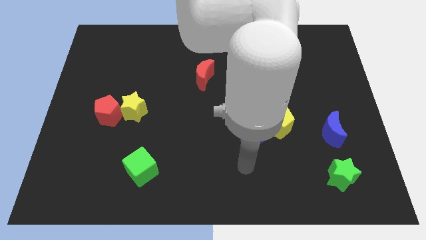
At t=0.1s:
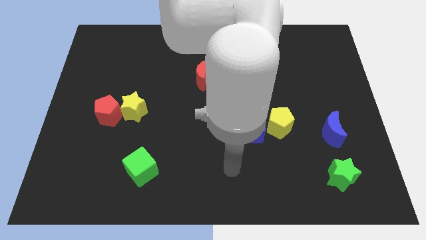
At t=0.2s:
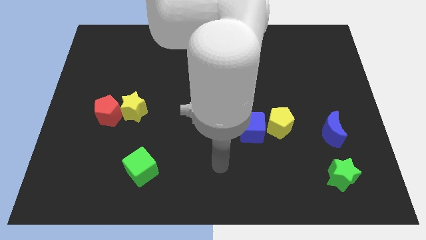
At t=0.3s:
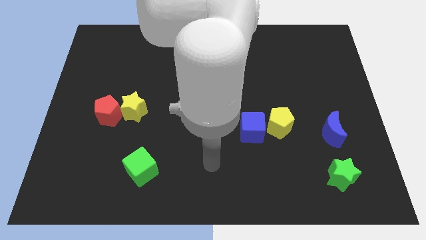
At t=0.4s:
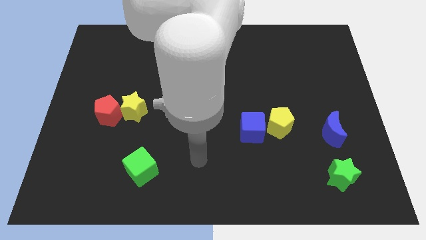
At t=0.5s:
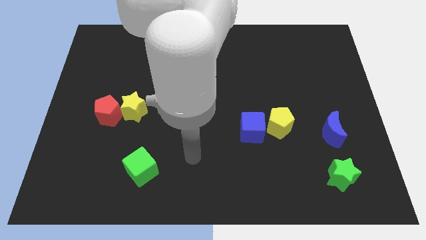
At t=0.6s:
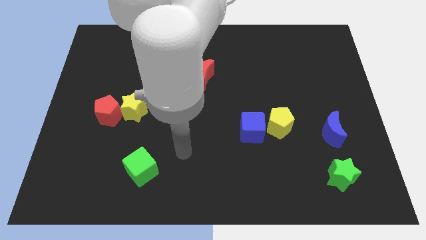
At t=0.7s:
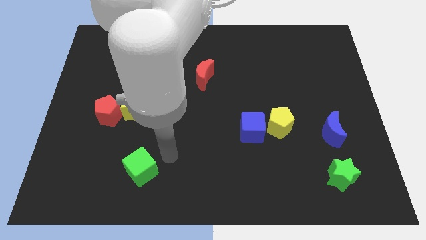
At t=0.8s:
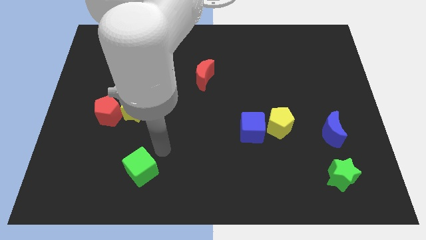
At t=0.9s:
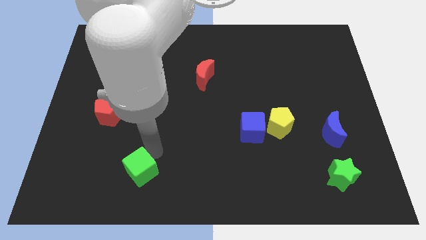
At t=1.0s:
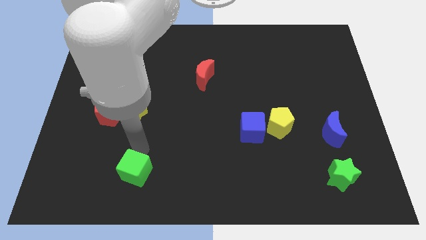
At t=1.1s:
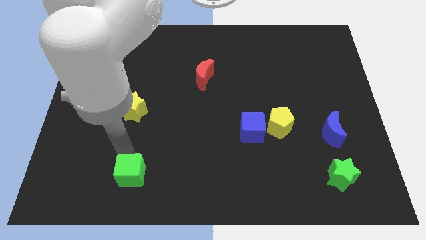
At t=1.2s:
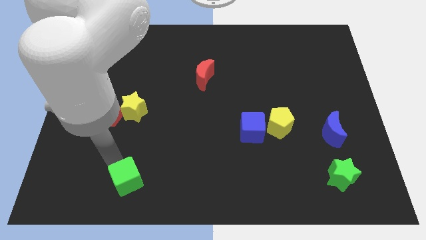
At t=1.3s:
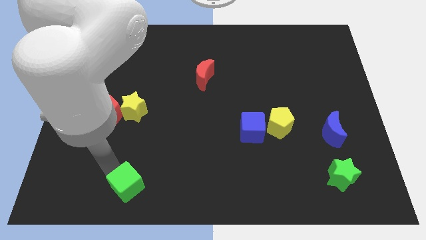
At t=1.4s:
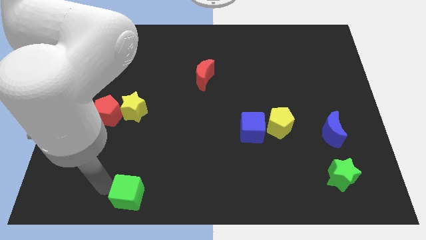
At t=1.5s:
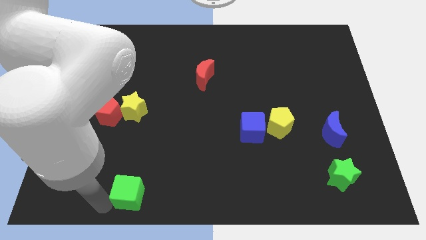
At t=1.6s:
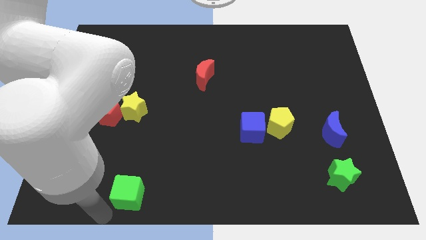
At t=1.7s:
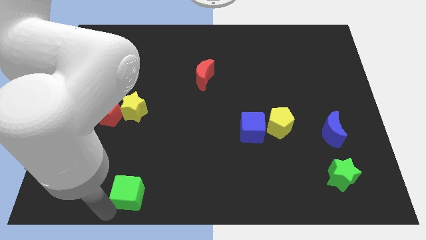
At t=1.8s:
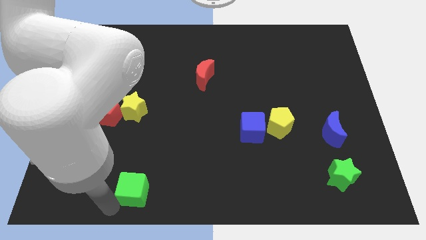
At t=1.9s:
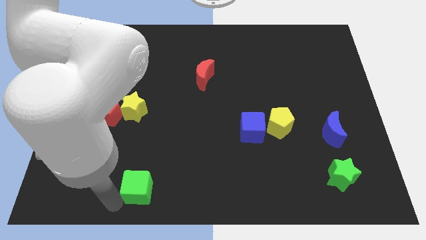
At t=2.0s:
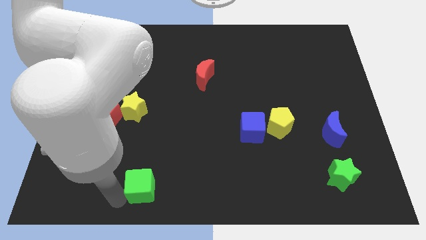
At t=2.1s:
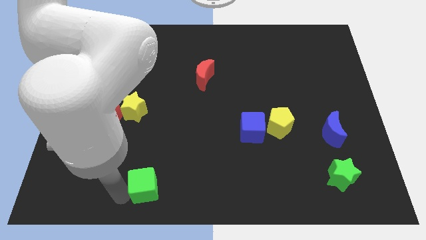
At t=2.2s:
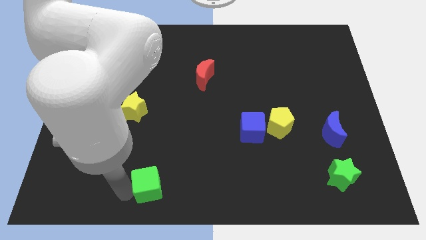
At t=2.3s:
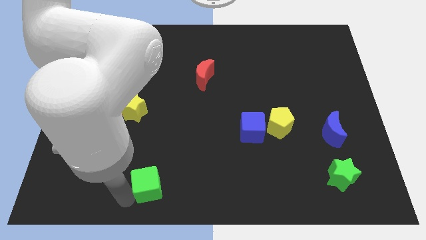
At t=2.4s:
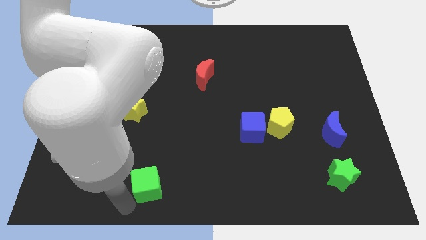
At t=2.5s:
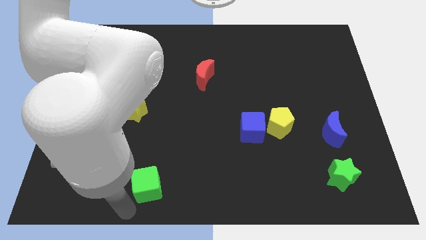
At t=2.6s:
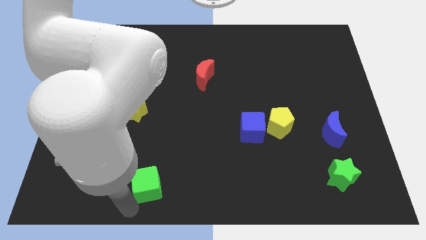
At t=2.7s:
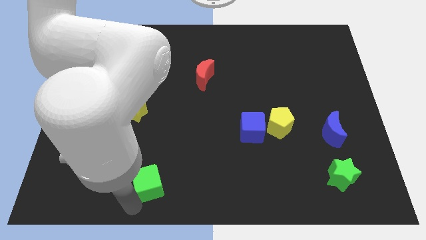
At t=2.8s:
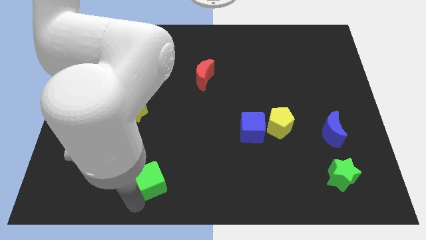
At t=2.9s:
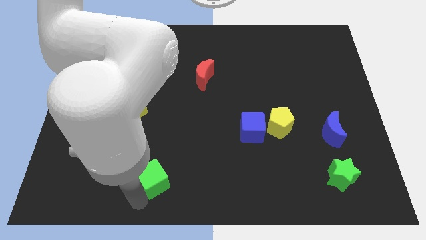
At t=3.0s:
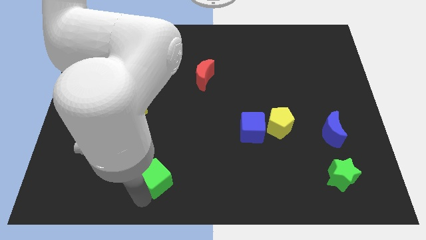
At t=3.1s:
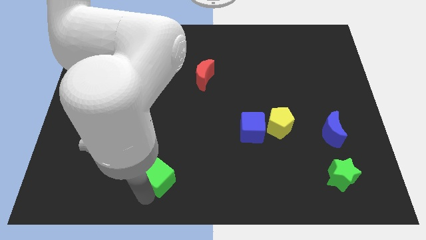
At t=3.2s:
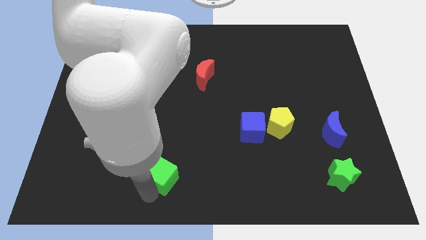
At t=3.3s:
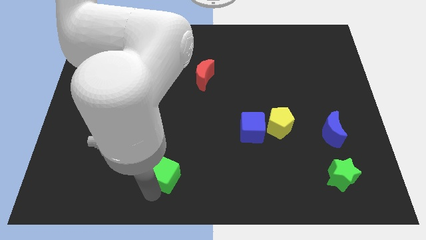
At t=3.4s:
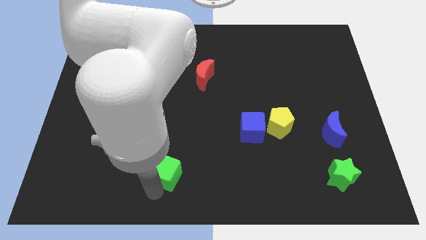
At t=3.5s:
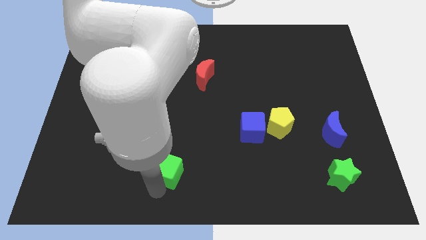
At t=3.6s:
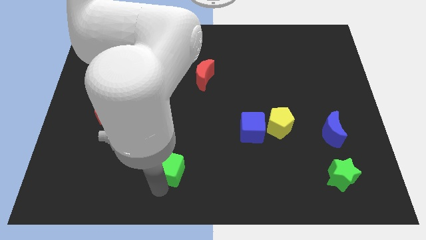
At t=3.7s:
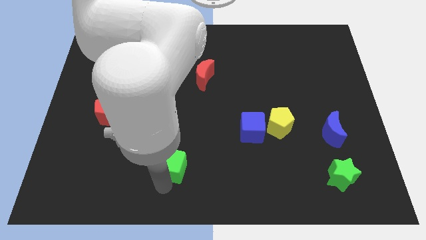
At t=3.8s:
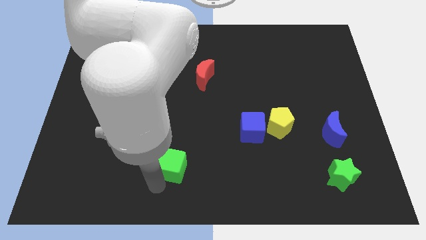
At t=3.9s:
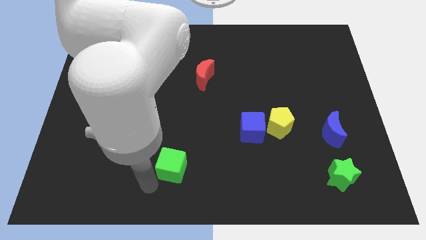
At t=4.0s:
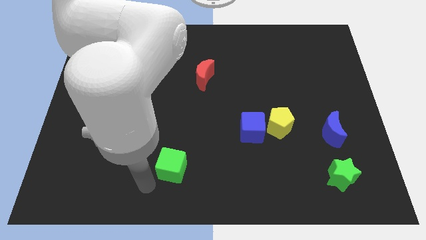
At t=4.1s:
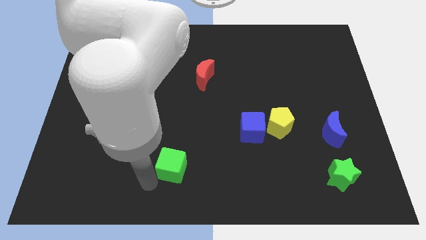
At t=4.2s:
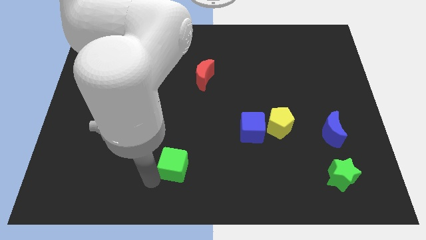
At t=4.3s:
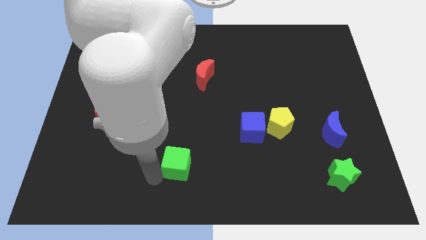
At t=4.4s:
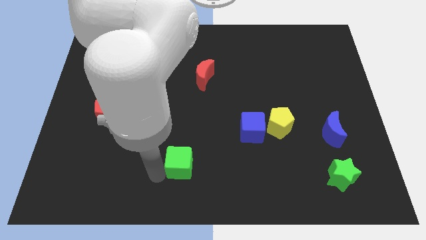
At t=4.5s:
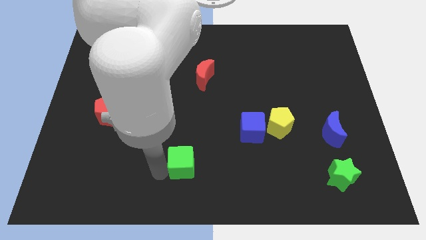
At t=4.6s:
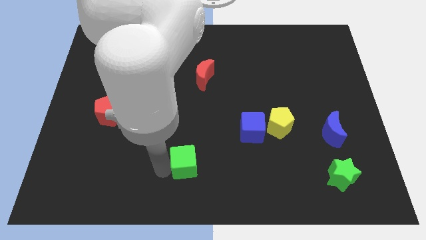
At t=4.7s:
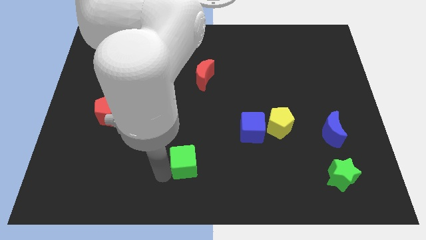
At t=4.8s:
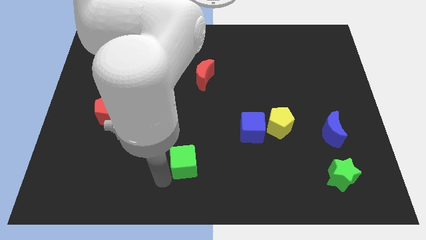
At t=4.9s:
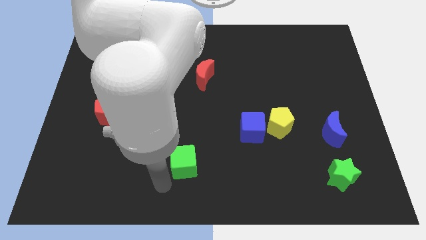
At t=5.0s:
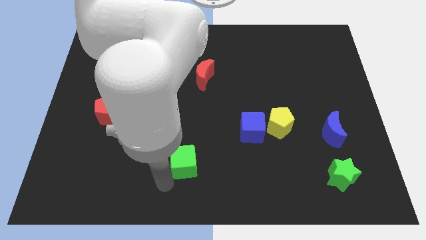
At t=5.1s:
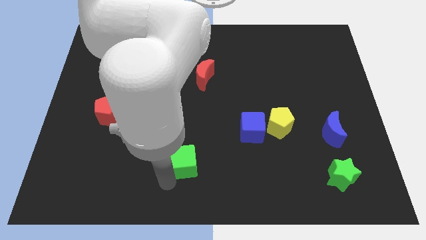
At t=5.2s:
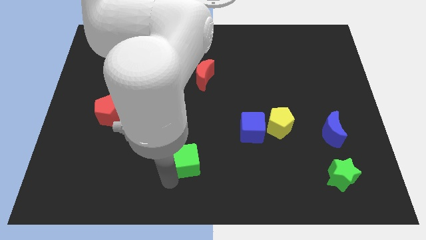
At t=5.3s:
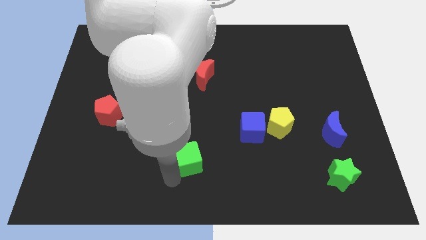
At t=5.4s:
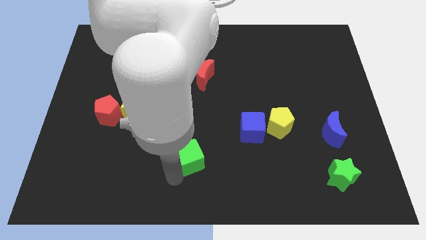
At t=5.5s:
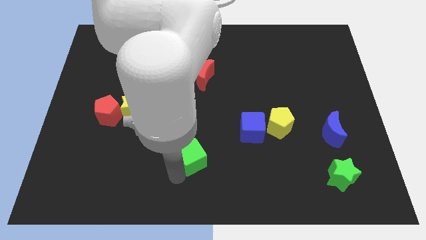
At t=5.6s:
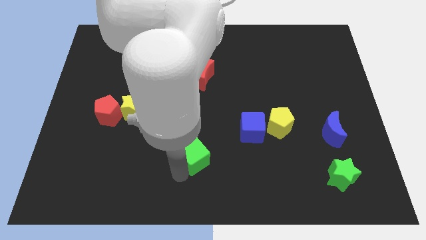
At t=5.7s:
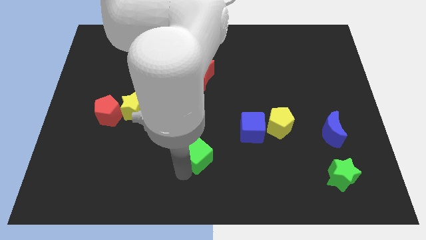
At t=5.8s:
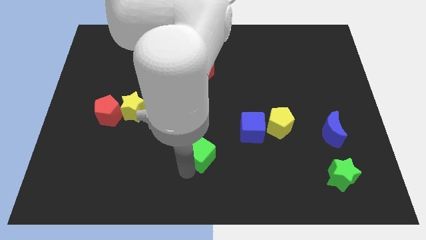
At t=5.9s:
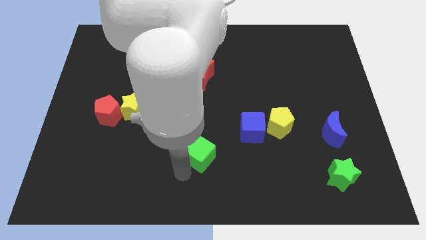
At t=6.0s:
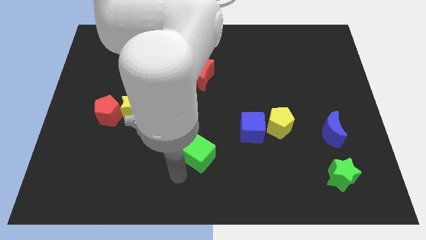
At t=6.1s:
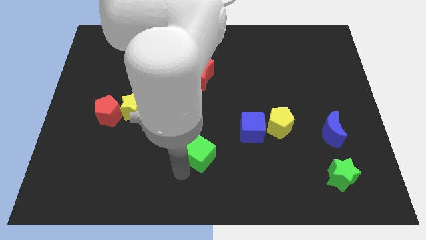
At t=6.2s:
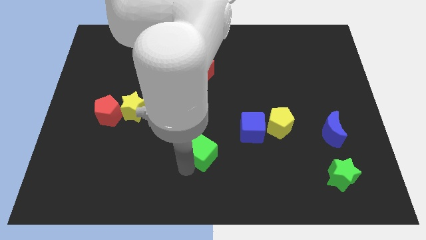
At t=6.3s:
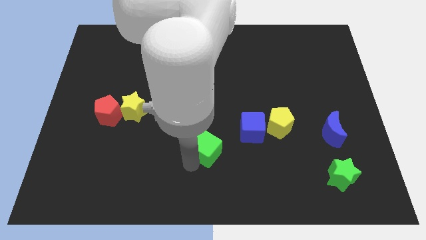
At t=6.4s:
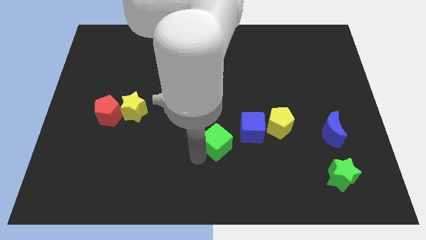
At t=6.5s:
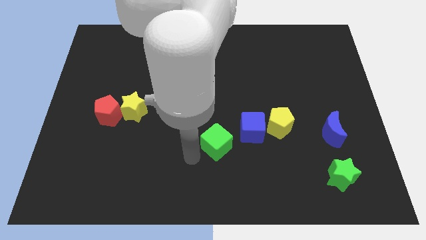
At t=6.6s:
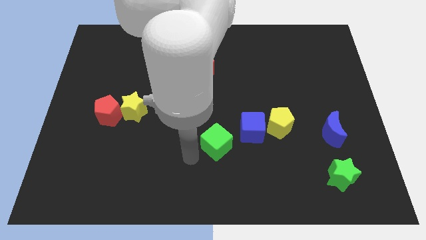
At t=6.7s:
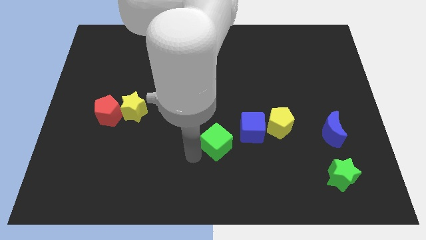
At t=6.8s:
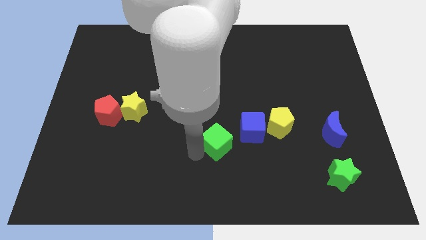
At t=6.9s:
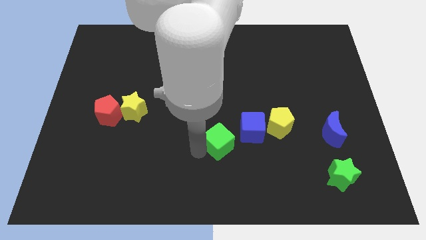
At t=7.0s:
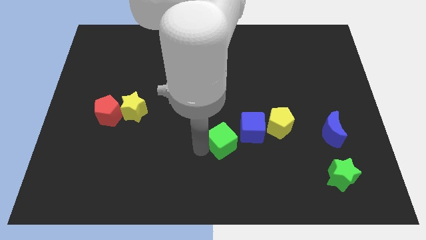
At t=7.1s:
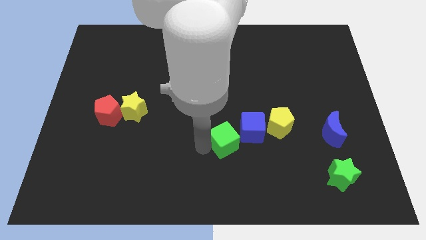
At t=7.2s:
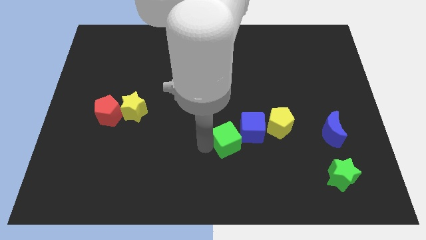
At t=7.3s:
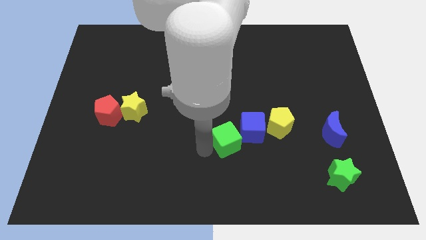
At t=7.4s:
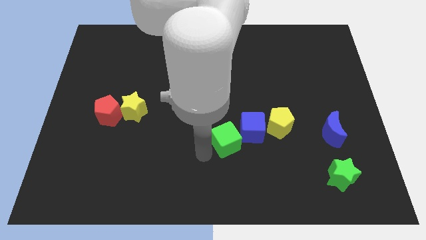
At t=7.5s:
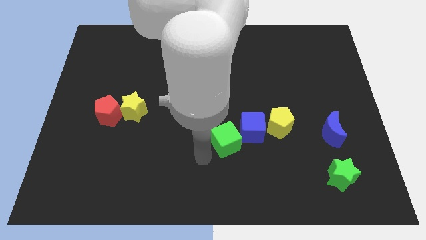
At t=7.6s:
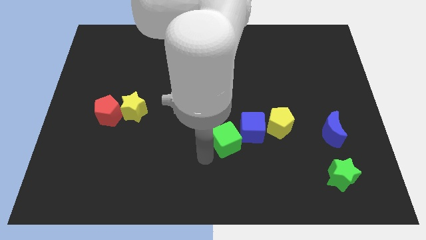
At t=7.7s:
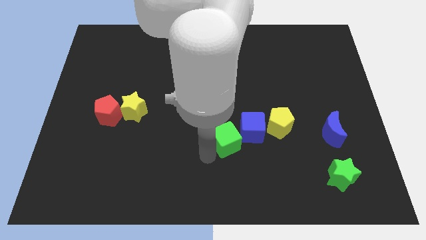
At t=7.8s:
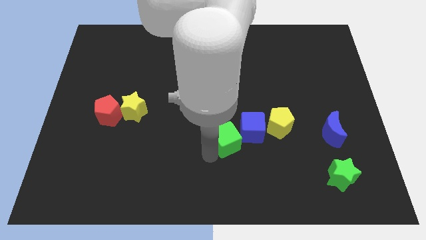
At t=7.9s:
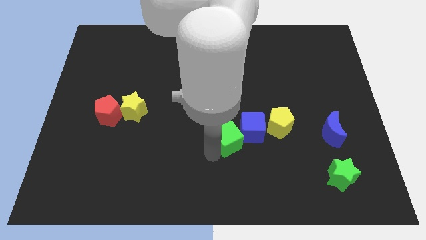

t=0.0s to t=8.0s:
put the green cube to the blue cube

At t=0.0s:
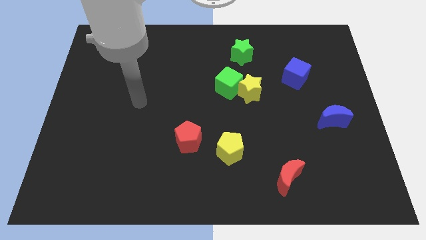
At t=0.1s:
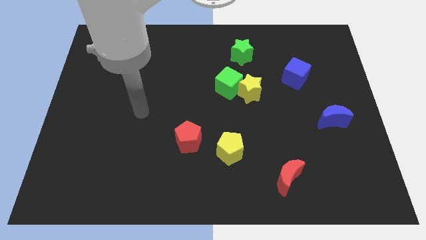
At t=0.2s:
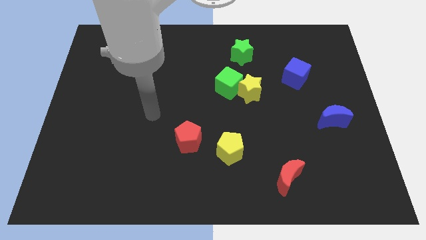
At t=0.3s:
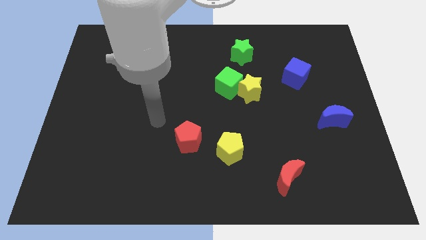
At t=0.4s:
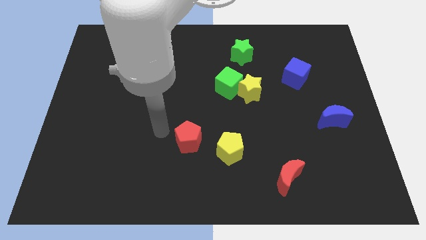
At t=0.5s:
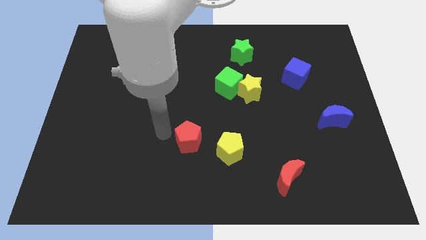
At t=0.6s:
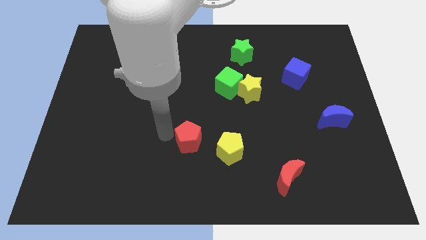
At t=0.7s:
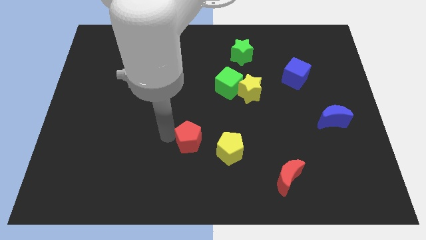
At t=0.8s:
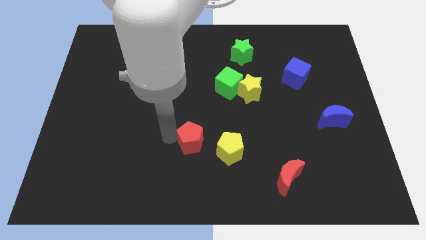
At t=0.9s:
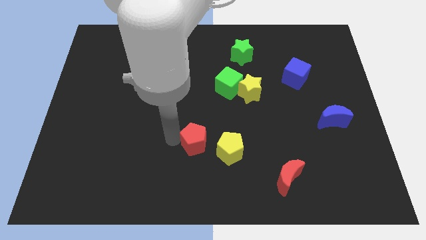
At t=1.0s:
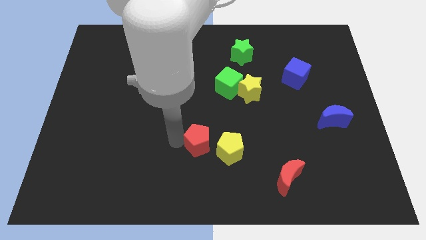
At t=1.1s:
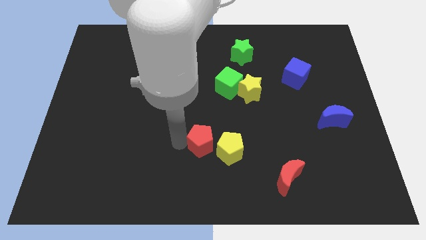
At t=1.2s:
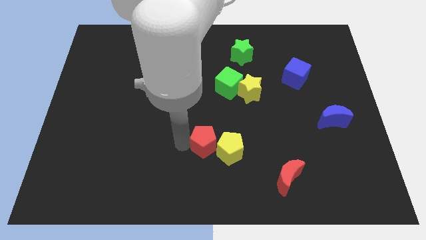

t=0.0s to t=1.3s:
put the red pentagon to the yellow pentagon
